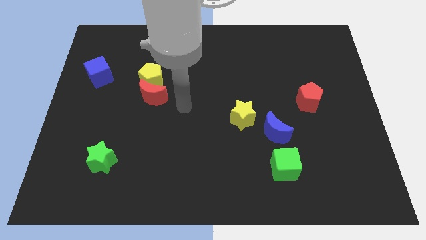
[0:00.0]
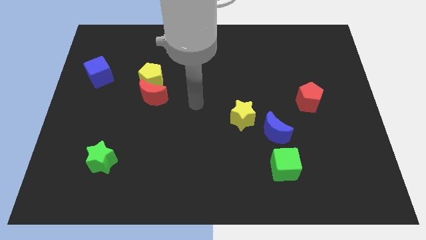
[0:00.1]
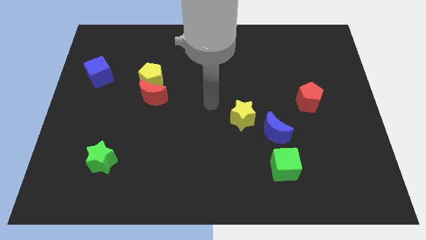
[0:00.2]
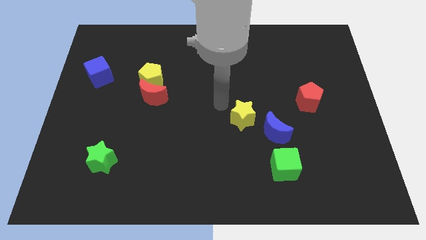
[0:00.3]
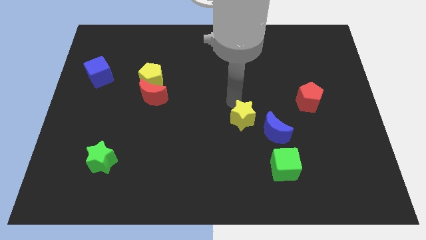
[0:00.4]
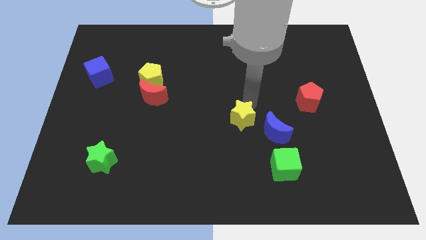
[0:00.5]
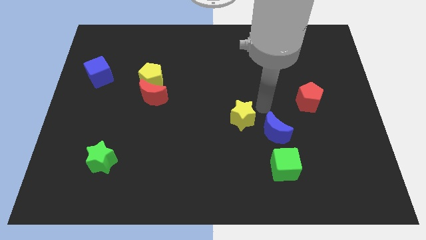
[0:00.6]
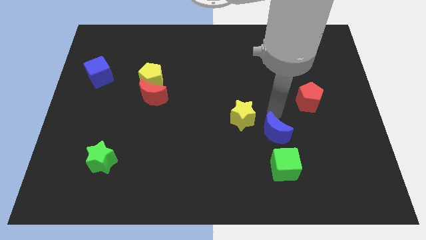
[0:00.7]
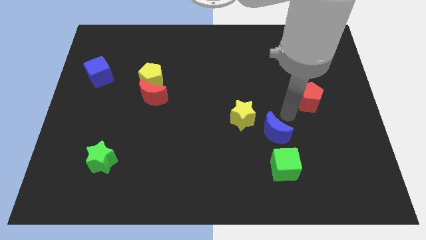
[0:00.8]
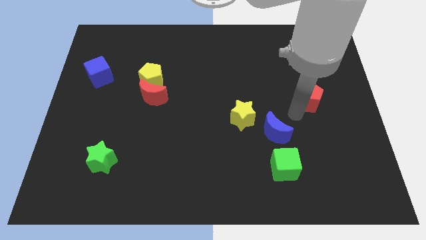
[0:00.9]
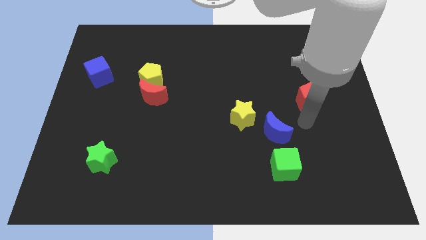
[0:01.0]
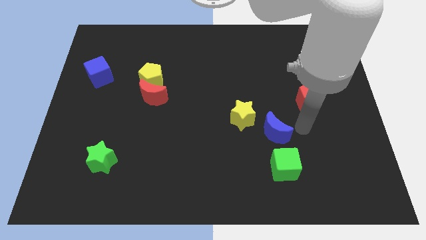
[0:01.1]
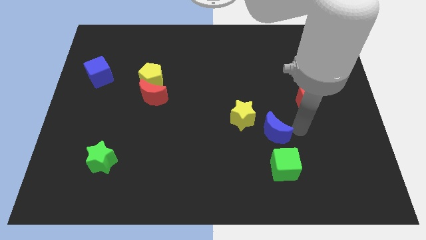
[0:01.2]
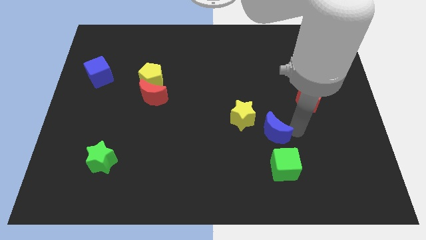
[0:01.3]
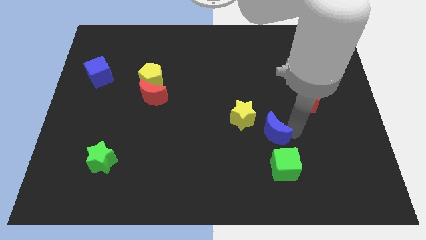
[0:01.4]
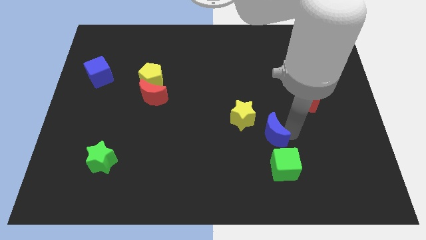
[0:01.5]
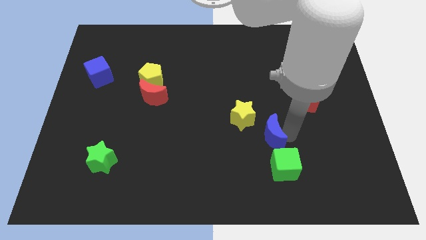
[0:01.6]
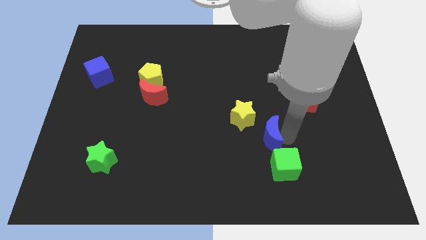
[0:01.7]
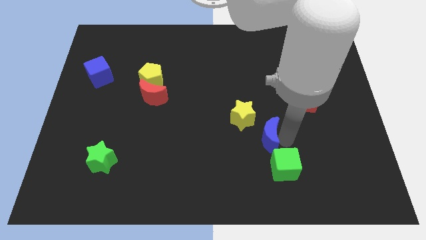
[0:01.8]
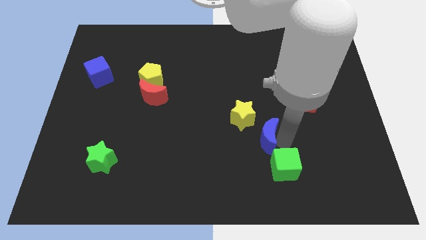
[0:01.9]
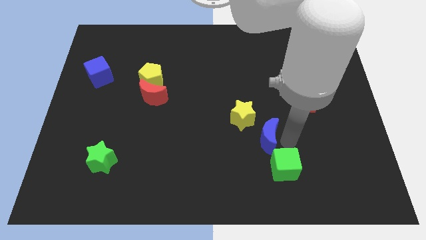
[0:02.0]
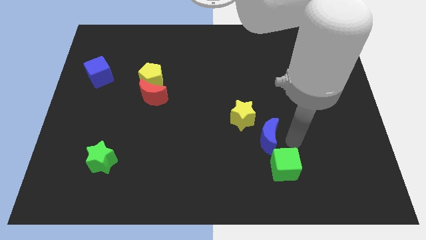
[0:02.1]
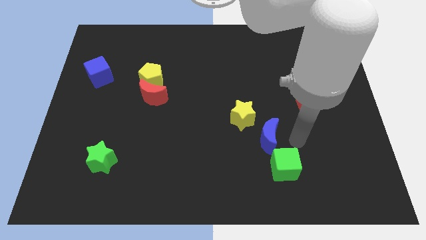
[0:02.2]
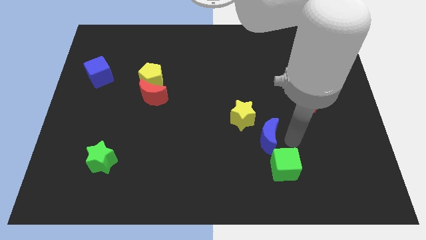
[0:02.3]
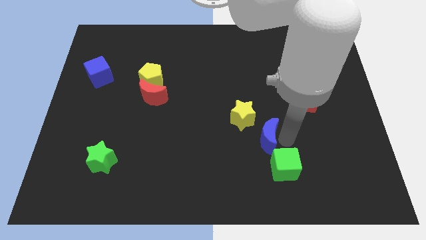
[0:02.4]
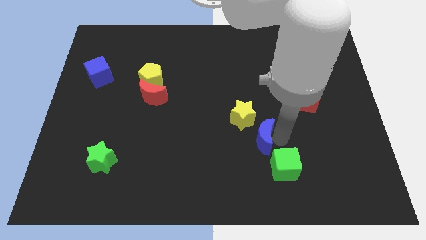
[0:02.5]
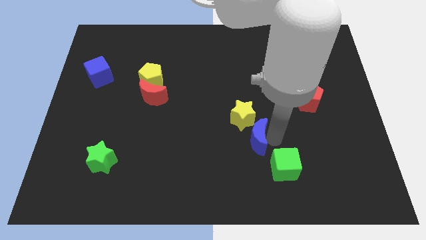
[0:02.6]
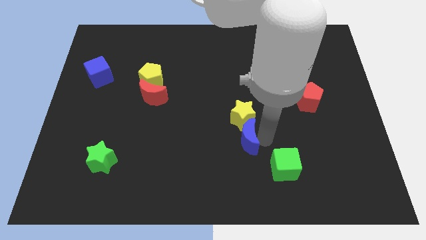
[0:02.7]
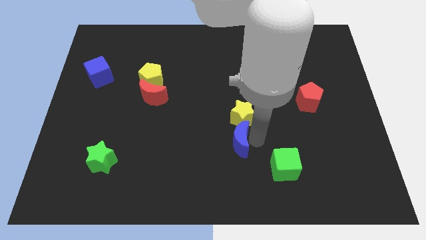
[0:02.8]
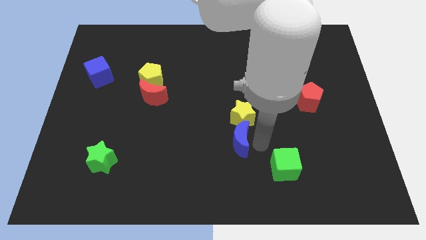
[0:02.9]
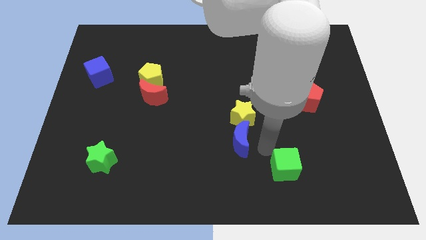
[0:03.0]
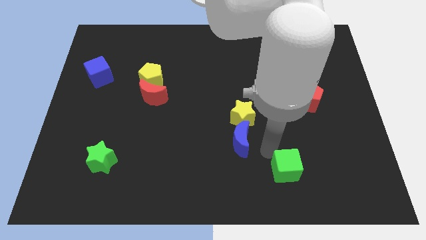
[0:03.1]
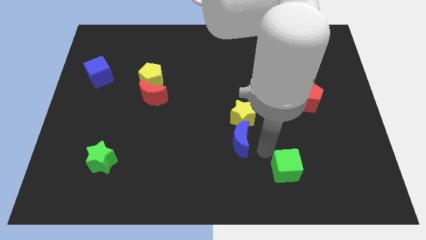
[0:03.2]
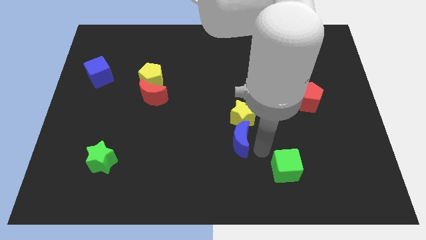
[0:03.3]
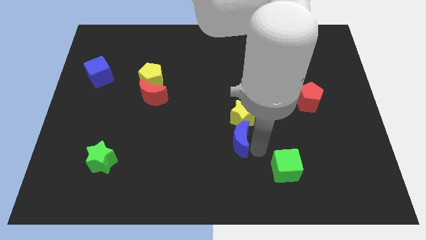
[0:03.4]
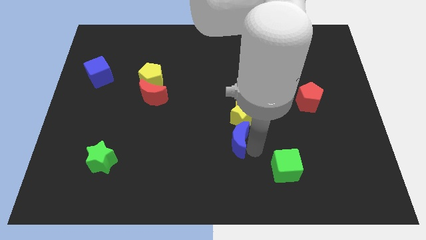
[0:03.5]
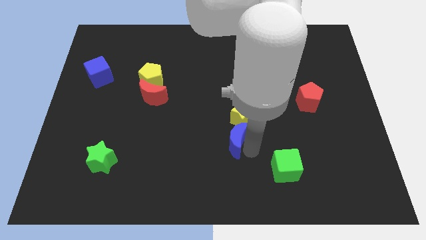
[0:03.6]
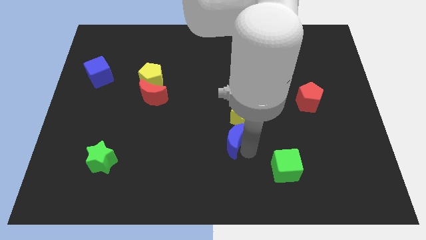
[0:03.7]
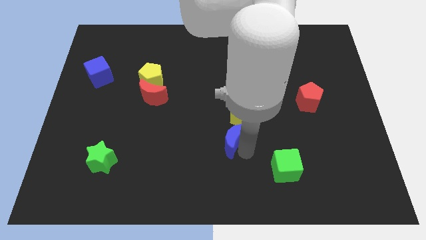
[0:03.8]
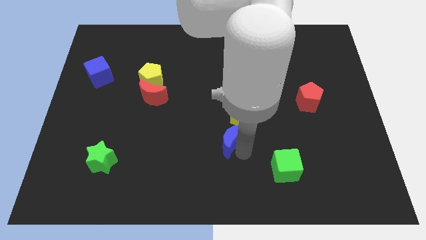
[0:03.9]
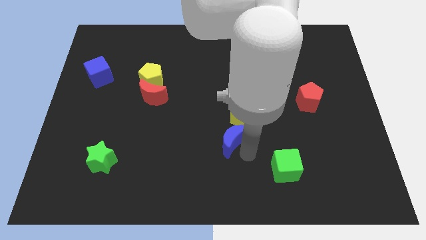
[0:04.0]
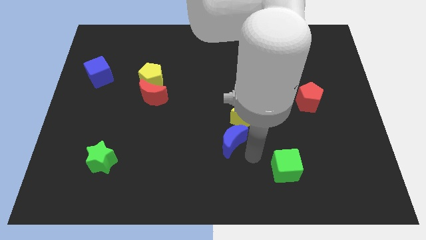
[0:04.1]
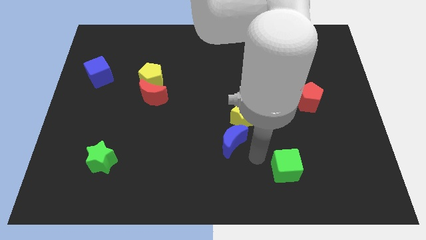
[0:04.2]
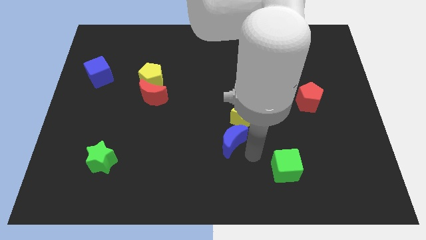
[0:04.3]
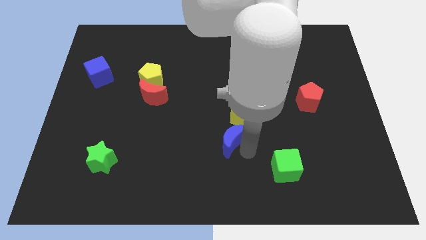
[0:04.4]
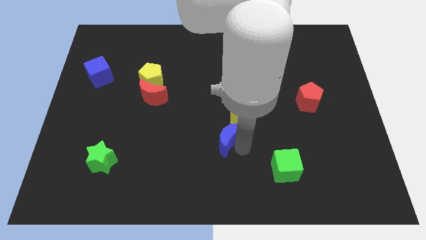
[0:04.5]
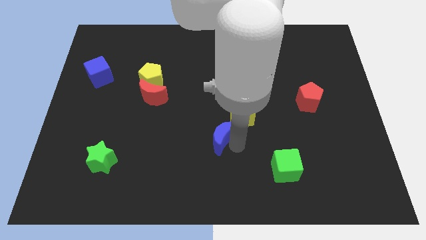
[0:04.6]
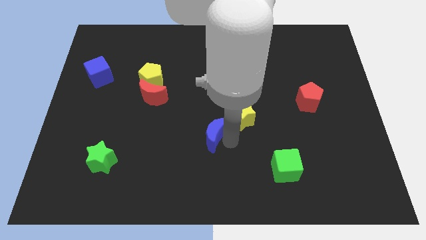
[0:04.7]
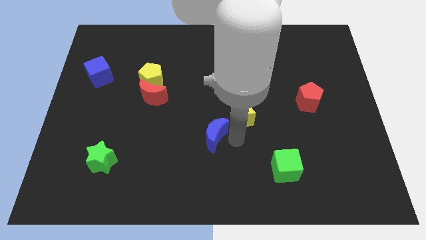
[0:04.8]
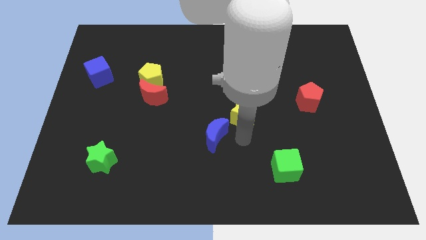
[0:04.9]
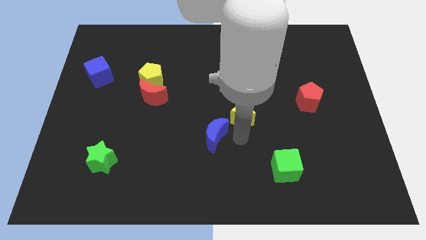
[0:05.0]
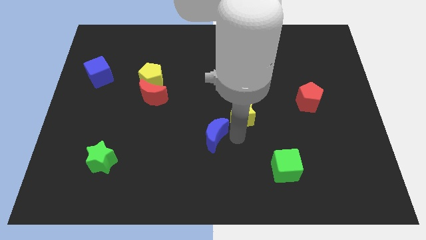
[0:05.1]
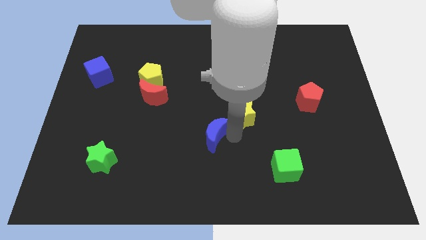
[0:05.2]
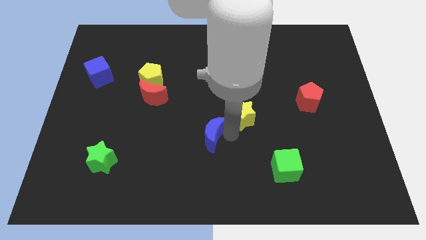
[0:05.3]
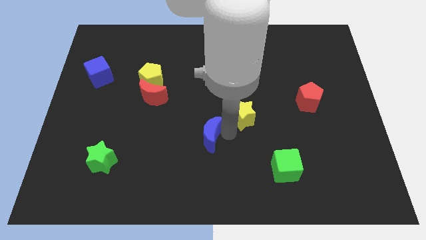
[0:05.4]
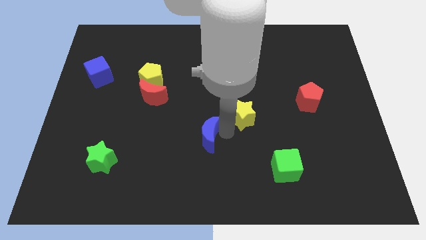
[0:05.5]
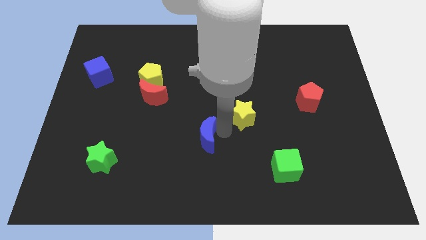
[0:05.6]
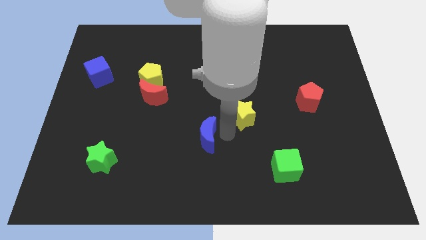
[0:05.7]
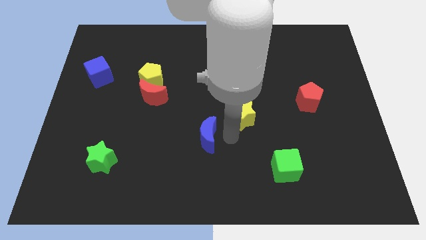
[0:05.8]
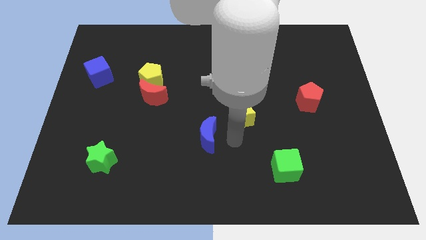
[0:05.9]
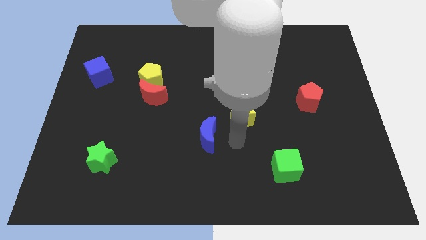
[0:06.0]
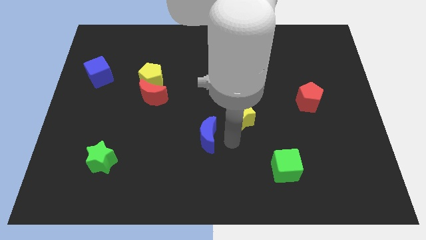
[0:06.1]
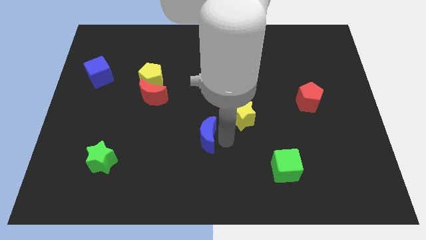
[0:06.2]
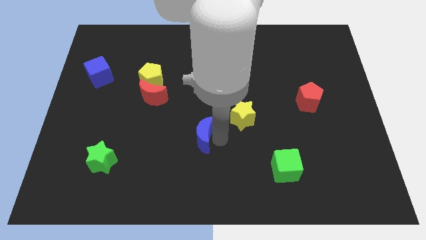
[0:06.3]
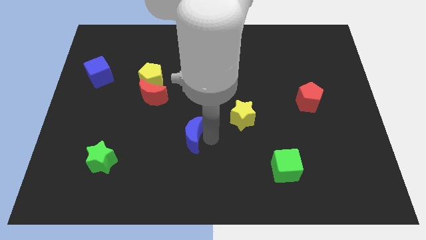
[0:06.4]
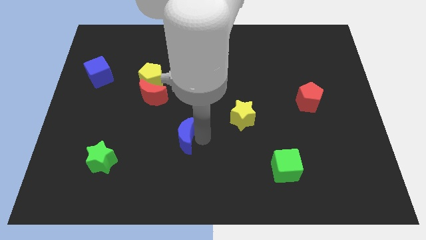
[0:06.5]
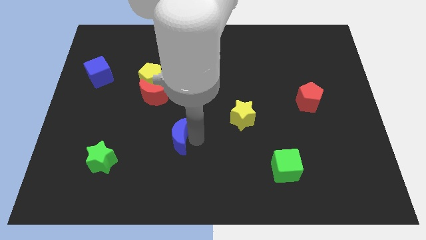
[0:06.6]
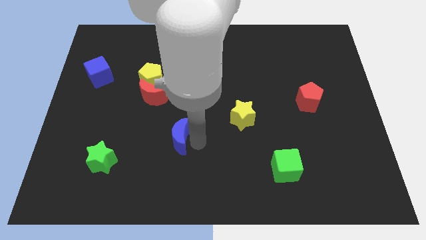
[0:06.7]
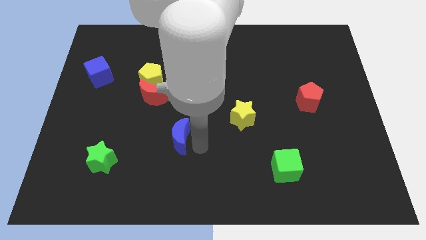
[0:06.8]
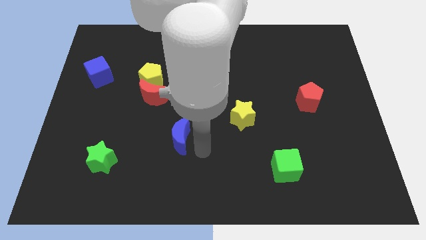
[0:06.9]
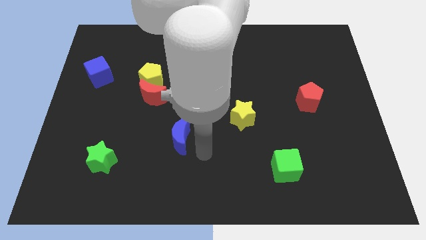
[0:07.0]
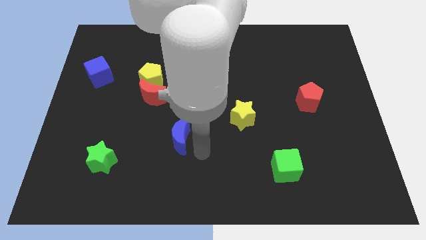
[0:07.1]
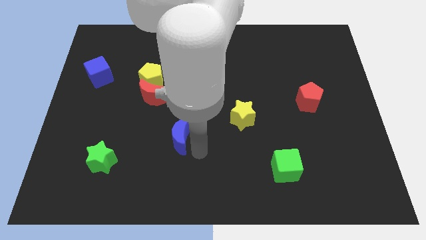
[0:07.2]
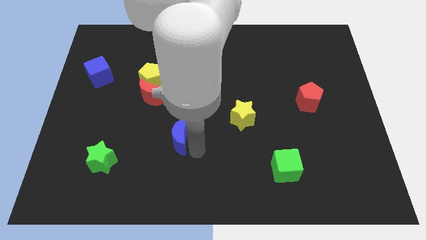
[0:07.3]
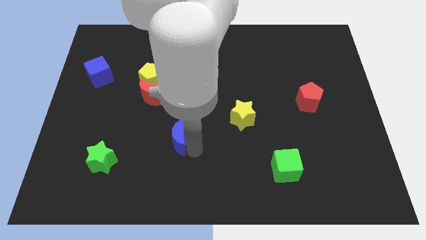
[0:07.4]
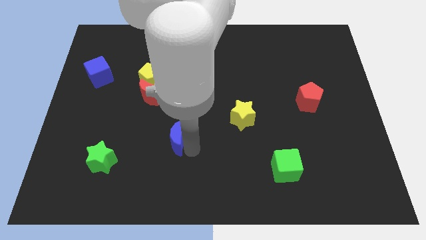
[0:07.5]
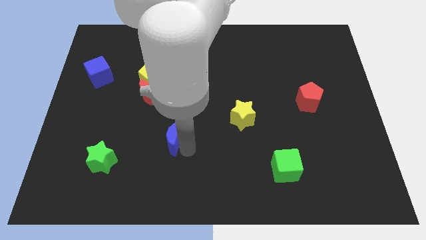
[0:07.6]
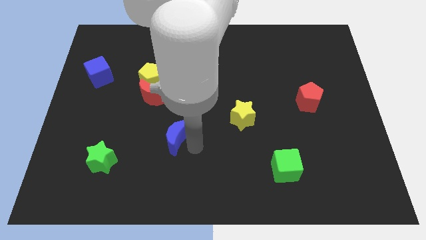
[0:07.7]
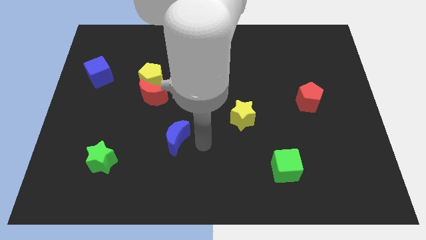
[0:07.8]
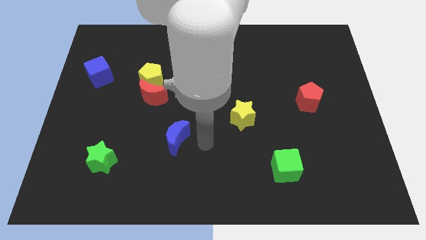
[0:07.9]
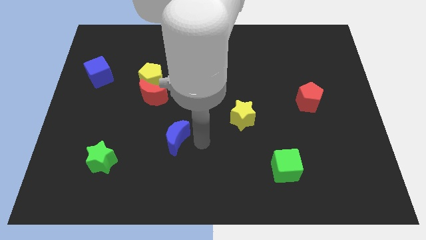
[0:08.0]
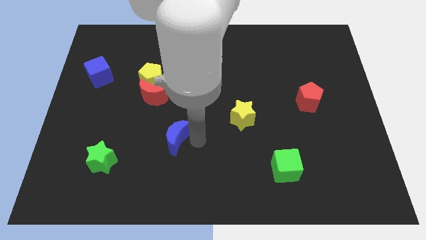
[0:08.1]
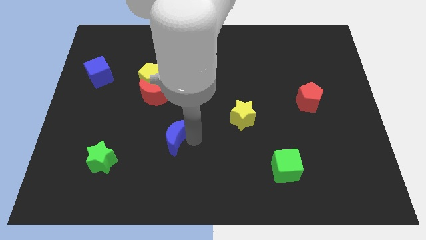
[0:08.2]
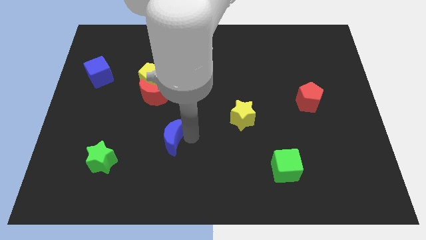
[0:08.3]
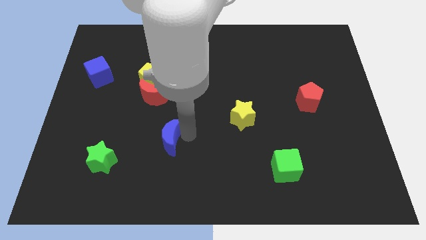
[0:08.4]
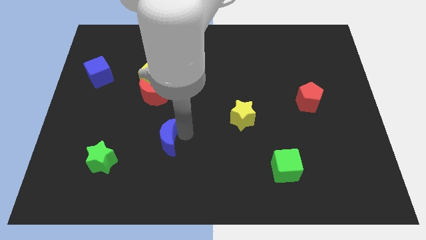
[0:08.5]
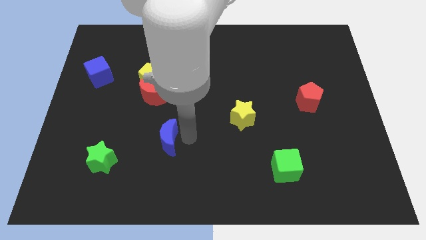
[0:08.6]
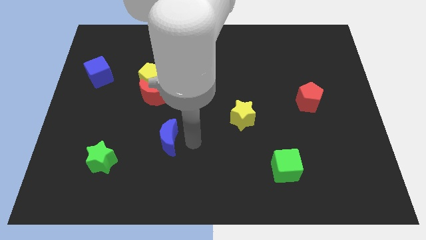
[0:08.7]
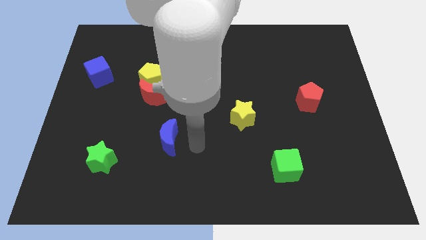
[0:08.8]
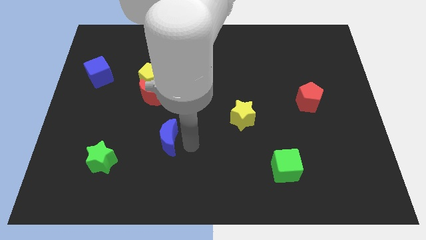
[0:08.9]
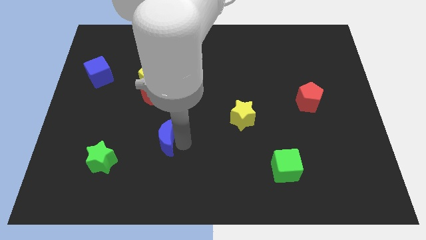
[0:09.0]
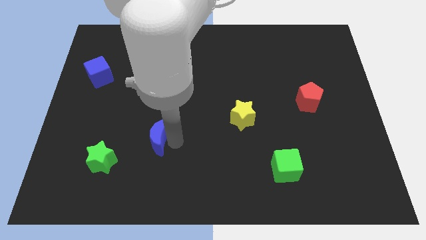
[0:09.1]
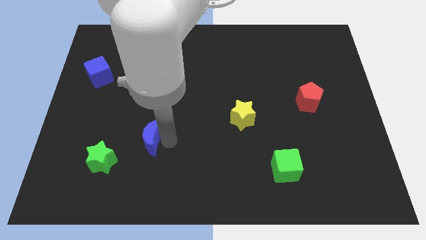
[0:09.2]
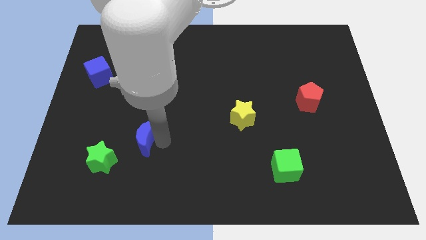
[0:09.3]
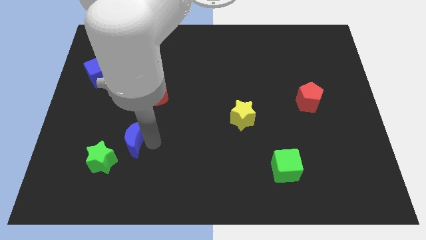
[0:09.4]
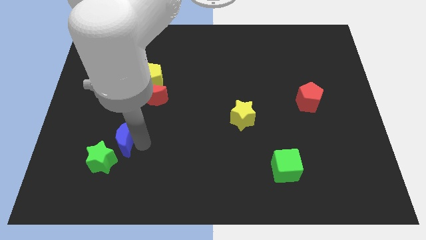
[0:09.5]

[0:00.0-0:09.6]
push the blue moon to the top side of the green star
